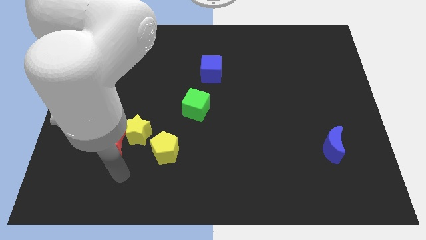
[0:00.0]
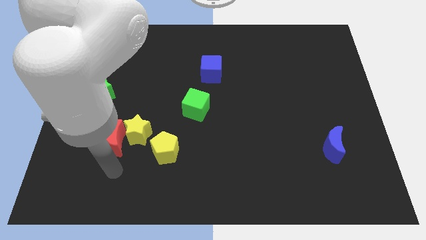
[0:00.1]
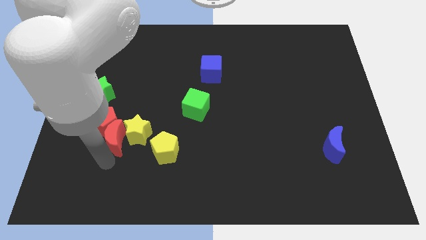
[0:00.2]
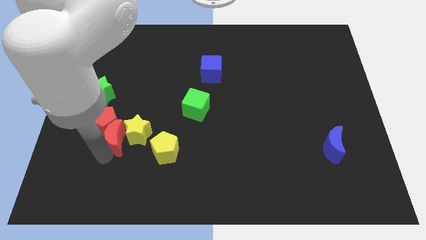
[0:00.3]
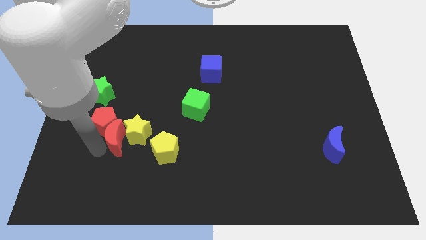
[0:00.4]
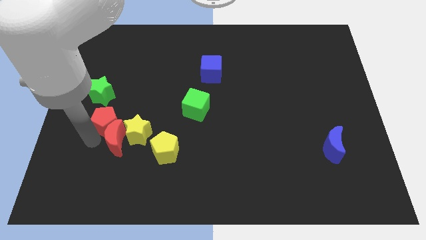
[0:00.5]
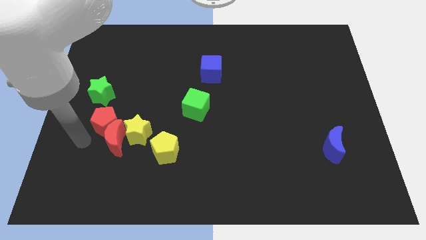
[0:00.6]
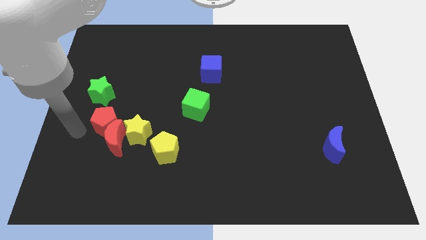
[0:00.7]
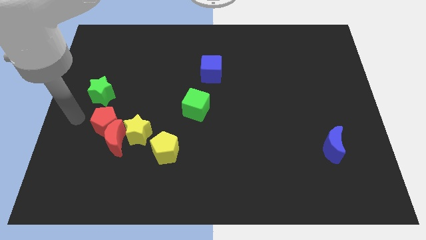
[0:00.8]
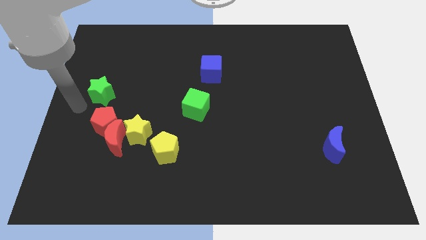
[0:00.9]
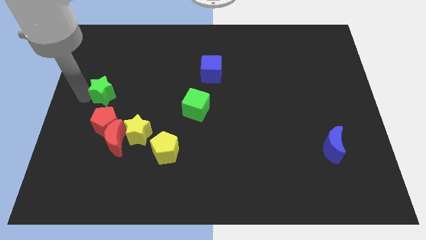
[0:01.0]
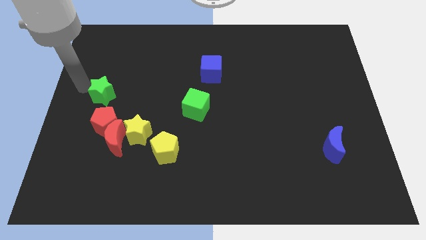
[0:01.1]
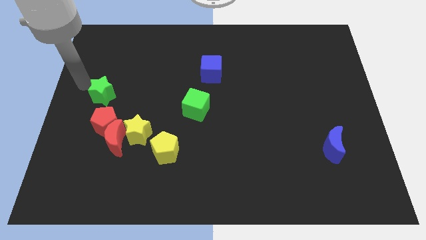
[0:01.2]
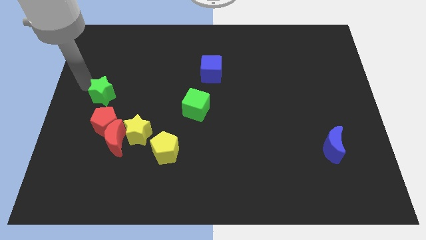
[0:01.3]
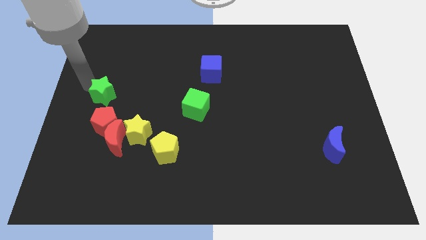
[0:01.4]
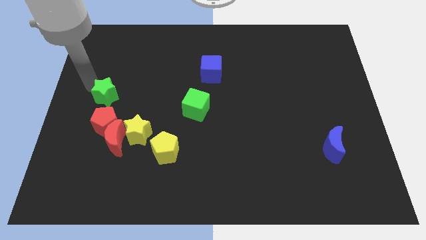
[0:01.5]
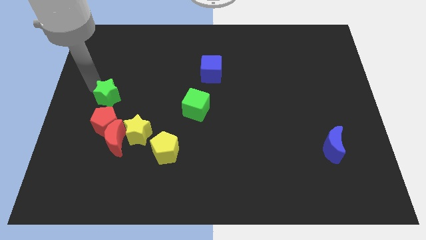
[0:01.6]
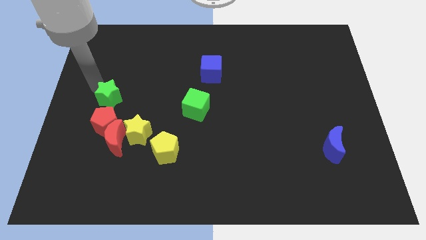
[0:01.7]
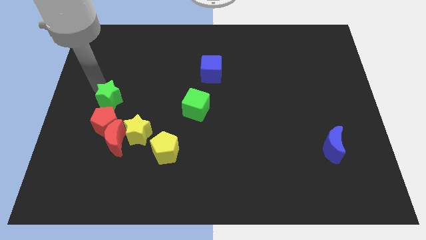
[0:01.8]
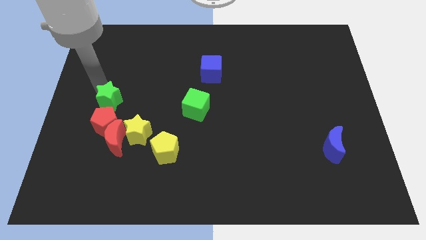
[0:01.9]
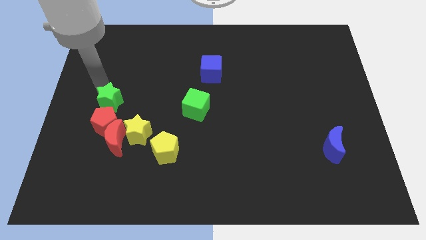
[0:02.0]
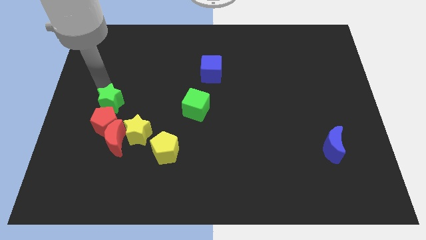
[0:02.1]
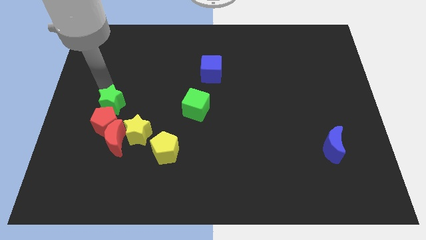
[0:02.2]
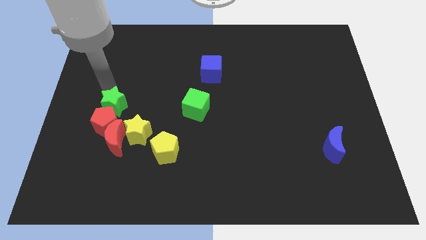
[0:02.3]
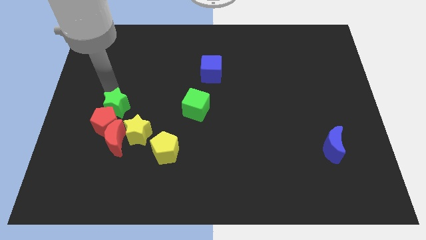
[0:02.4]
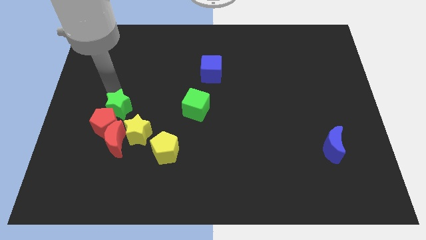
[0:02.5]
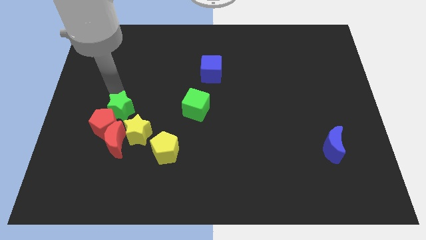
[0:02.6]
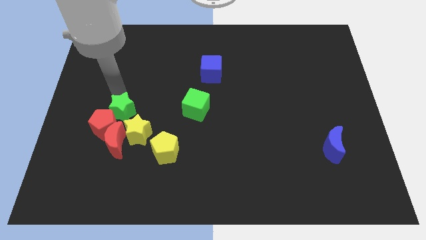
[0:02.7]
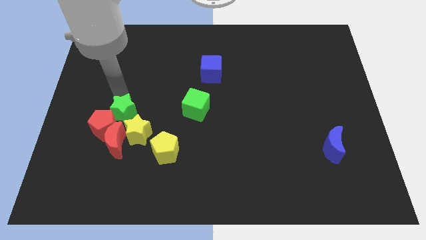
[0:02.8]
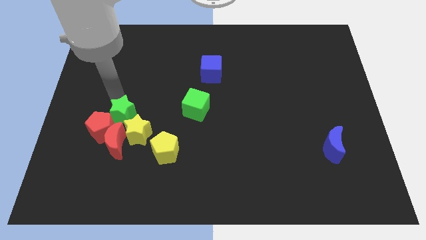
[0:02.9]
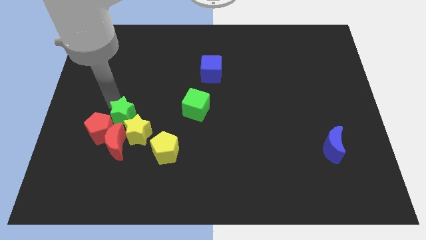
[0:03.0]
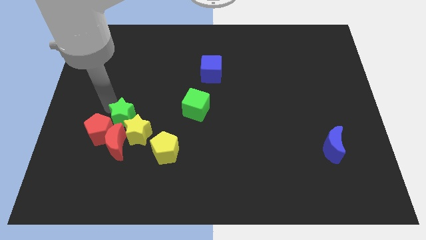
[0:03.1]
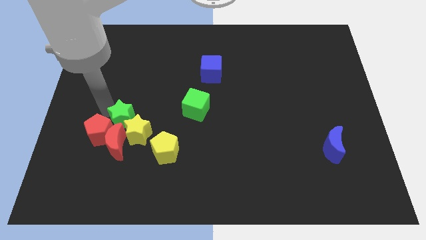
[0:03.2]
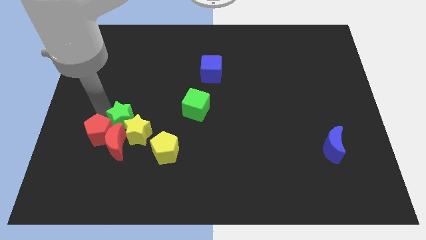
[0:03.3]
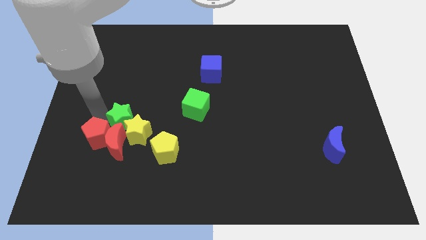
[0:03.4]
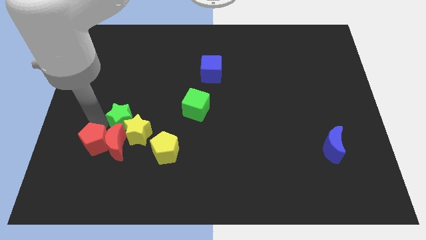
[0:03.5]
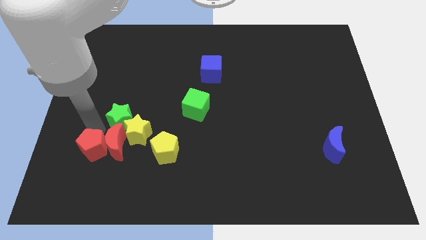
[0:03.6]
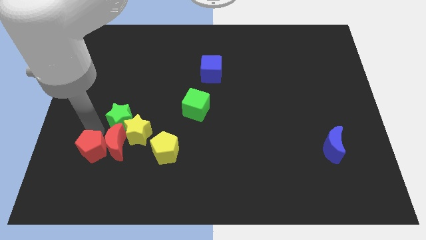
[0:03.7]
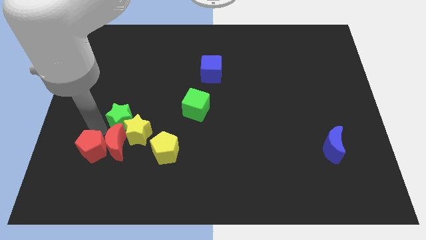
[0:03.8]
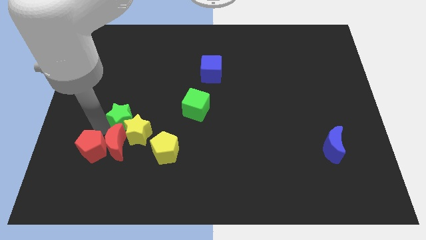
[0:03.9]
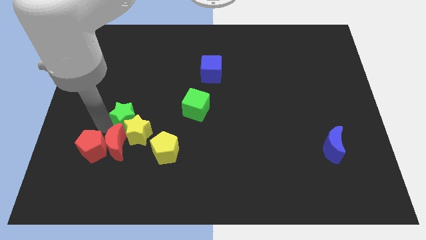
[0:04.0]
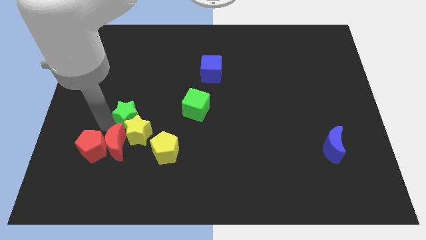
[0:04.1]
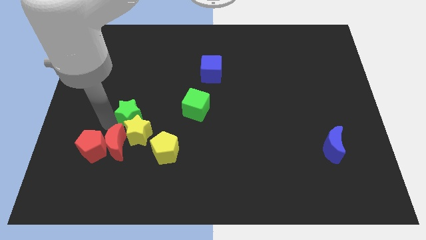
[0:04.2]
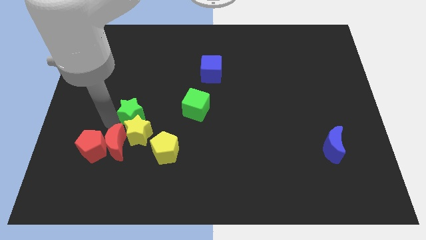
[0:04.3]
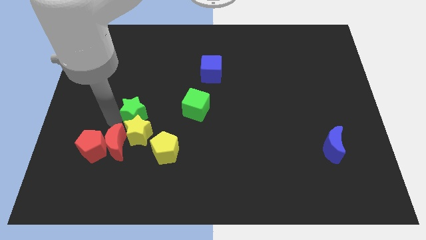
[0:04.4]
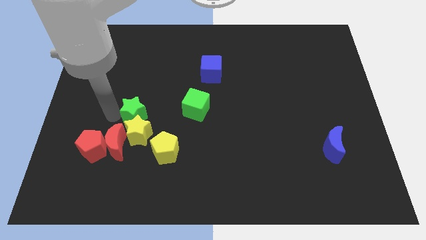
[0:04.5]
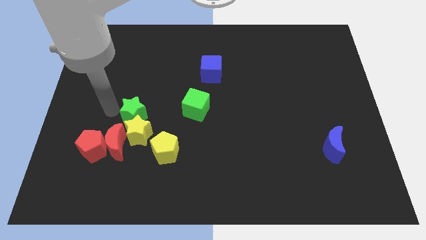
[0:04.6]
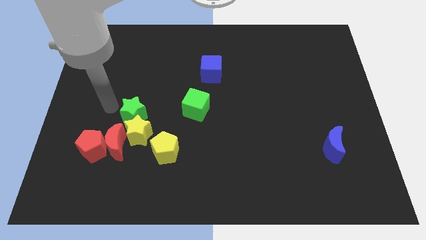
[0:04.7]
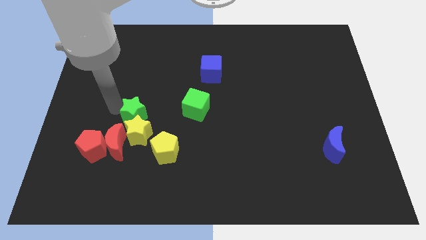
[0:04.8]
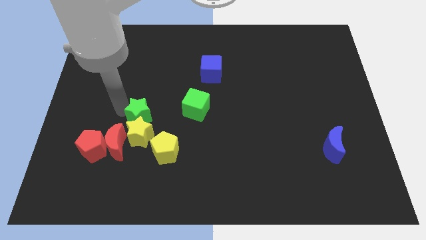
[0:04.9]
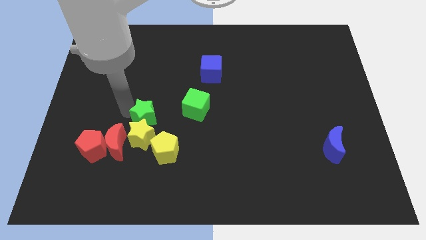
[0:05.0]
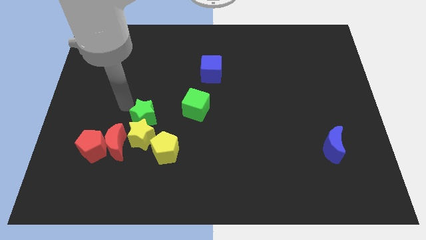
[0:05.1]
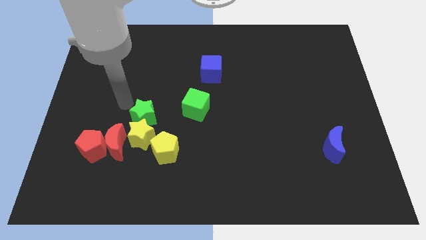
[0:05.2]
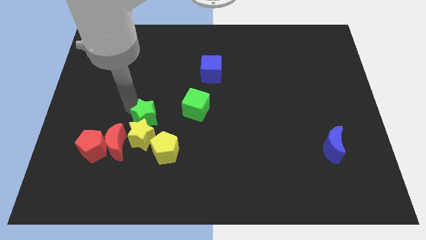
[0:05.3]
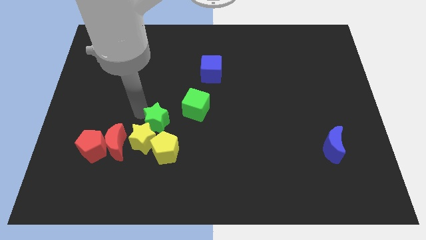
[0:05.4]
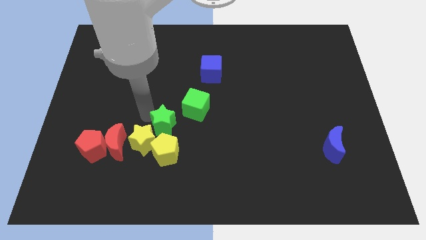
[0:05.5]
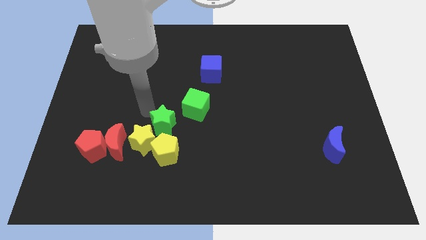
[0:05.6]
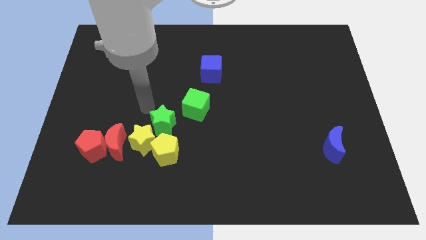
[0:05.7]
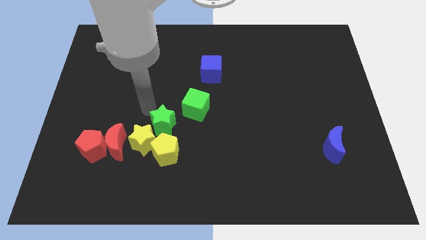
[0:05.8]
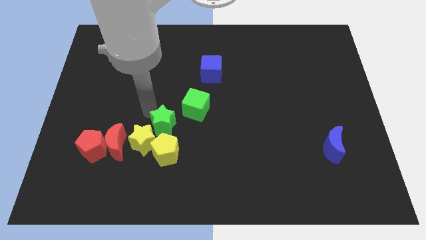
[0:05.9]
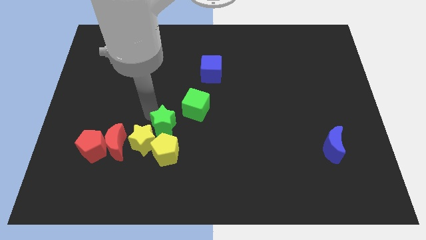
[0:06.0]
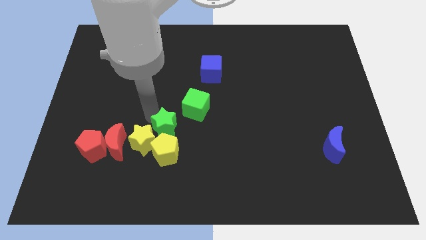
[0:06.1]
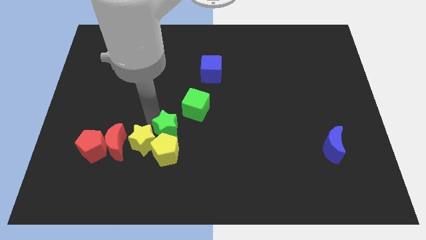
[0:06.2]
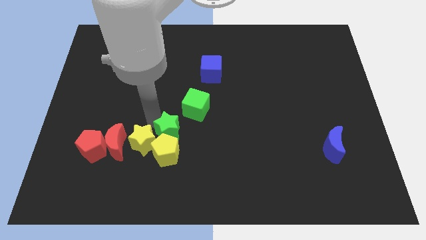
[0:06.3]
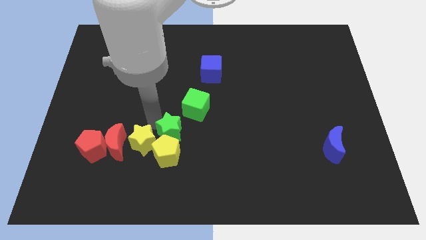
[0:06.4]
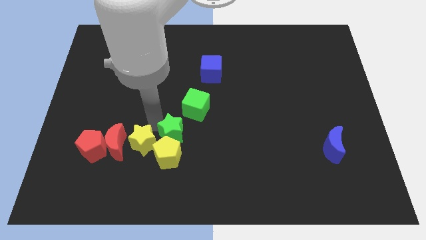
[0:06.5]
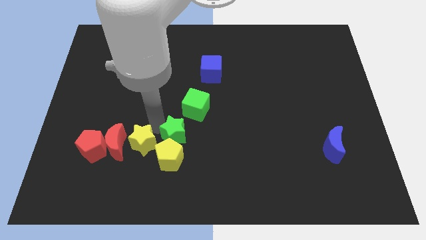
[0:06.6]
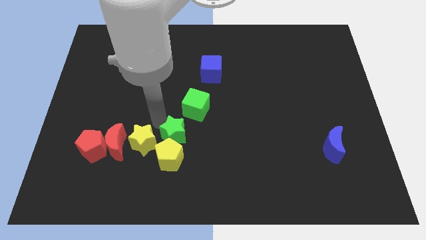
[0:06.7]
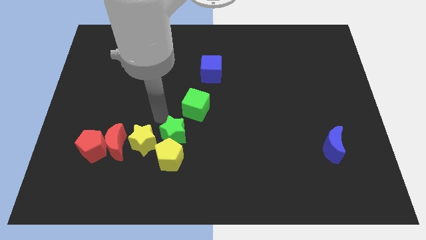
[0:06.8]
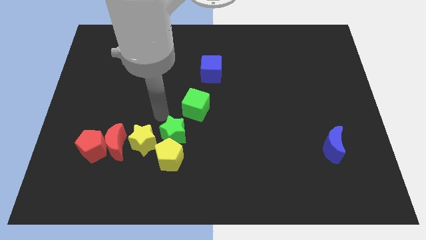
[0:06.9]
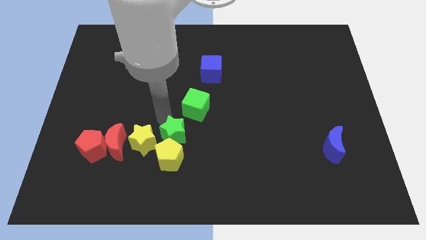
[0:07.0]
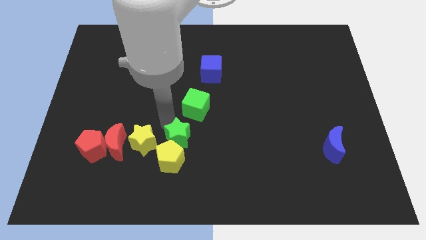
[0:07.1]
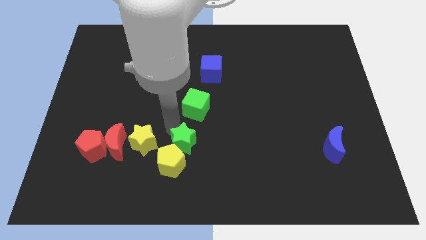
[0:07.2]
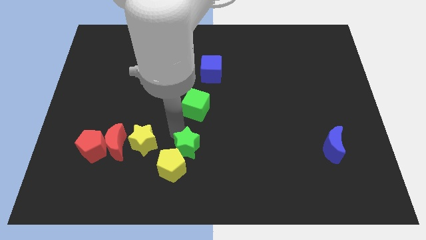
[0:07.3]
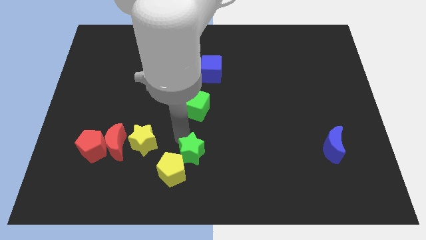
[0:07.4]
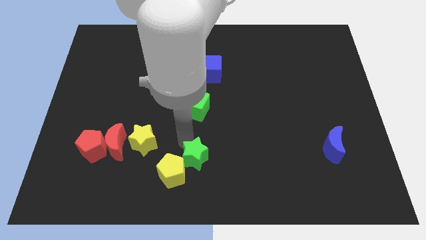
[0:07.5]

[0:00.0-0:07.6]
move the green star to the bottom side
